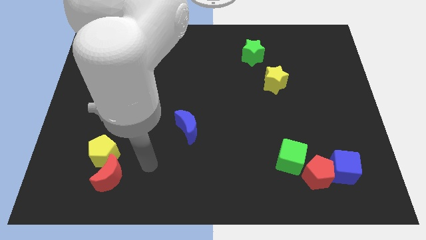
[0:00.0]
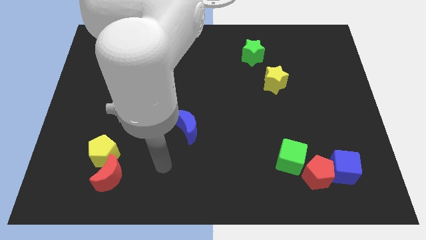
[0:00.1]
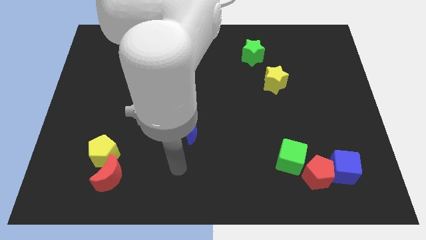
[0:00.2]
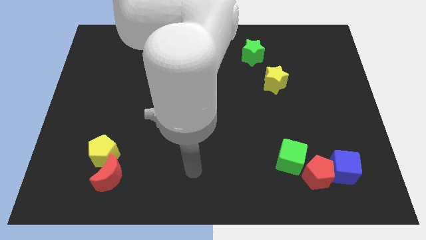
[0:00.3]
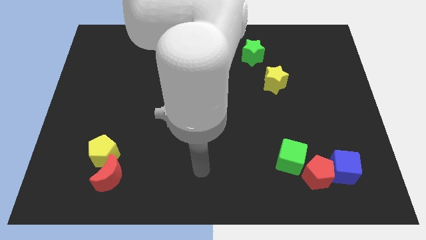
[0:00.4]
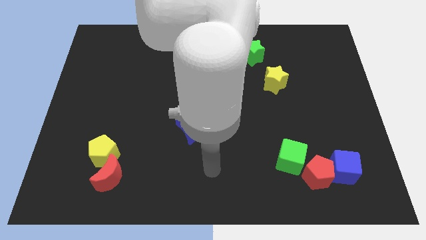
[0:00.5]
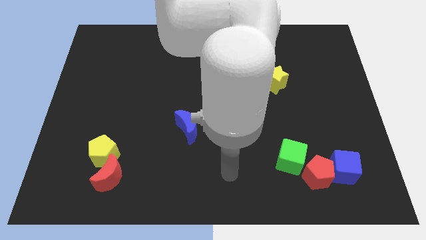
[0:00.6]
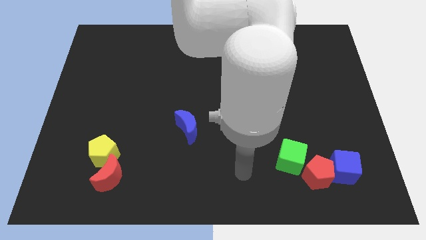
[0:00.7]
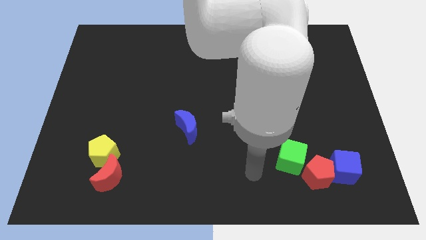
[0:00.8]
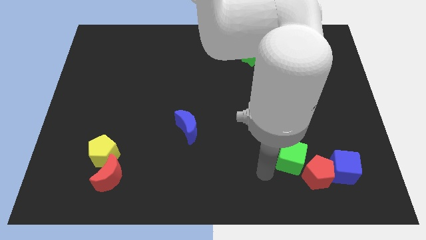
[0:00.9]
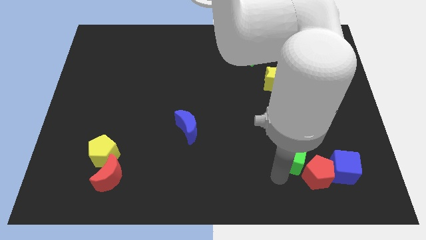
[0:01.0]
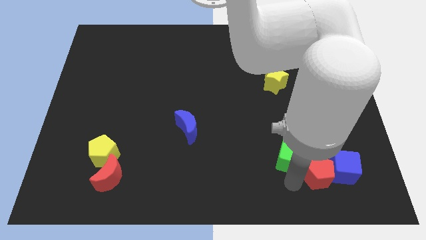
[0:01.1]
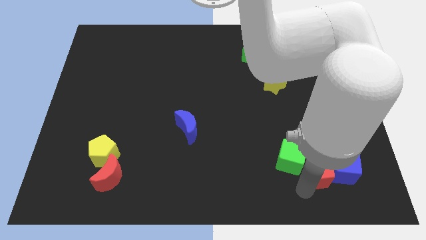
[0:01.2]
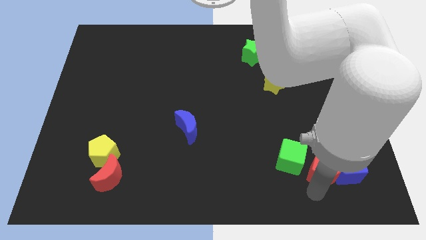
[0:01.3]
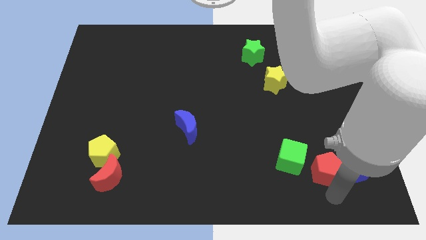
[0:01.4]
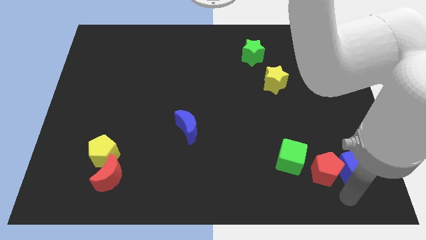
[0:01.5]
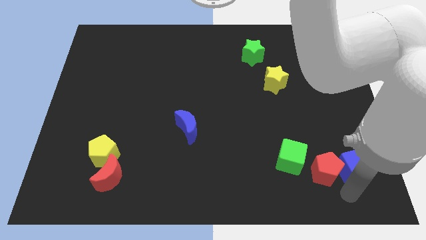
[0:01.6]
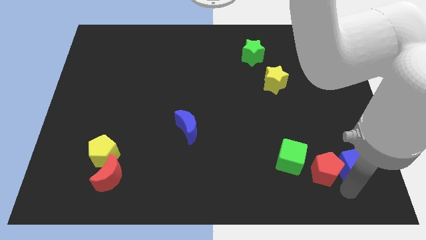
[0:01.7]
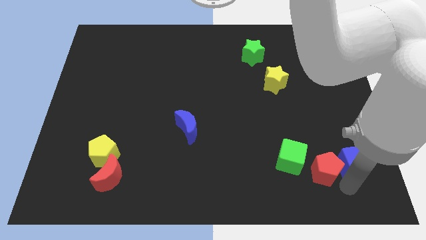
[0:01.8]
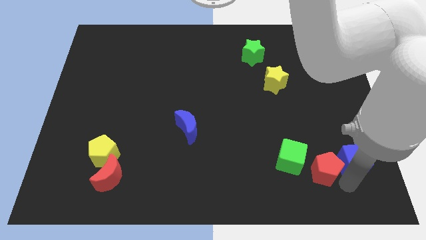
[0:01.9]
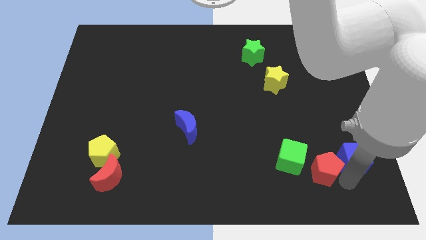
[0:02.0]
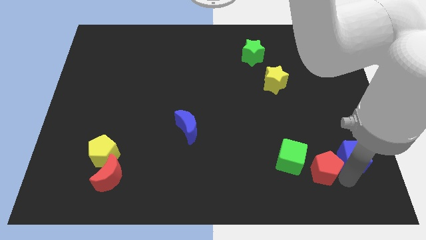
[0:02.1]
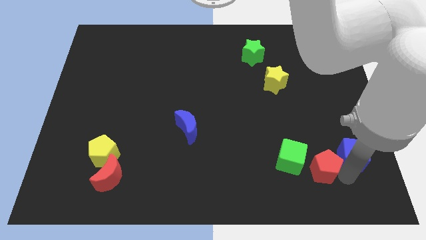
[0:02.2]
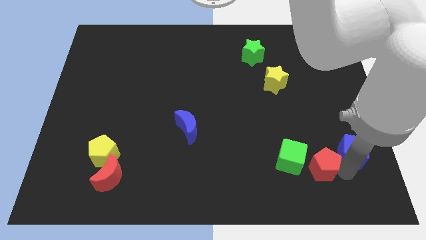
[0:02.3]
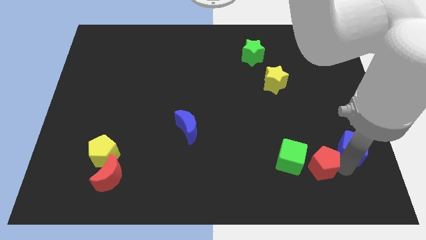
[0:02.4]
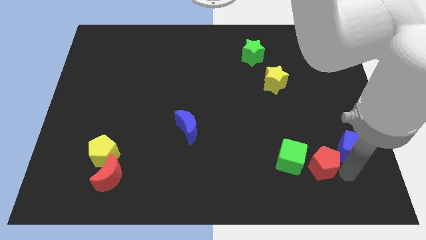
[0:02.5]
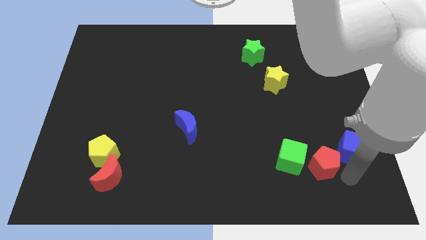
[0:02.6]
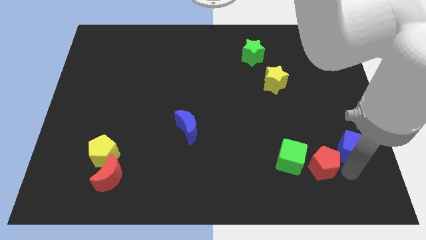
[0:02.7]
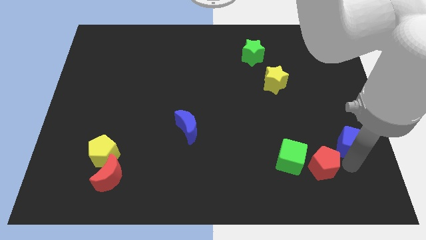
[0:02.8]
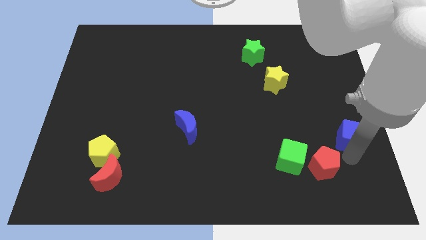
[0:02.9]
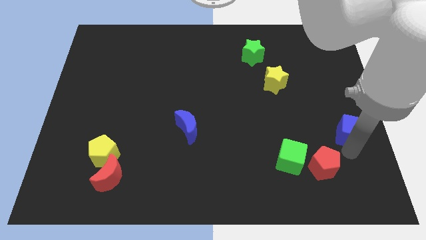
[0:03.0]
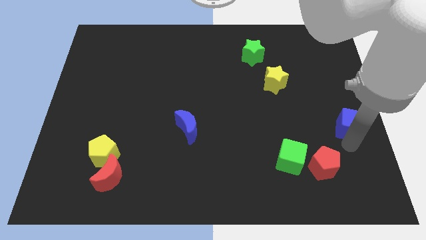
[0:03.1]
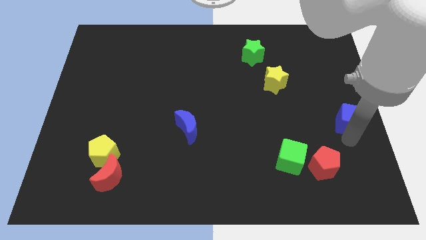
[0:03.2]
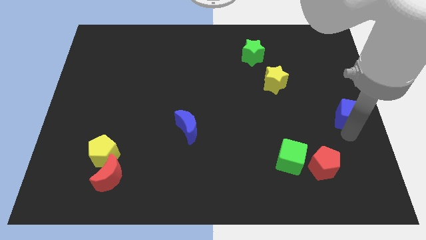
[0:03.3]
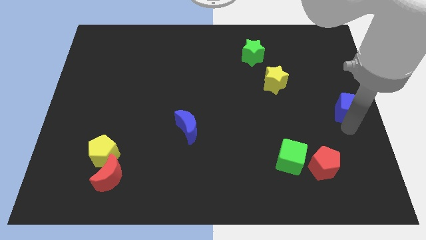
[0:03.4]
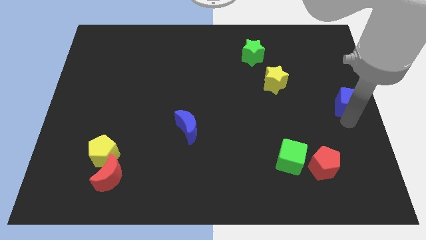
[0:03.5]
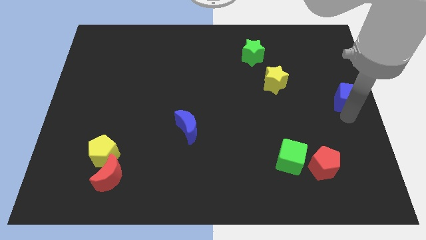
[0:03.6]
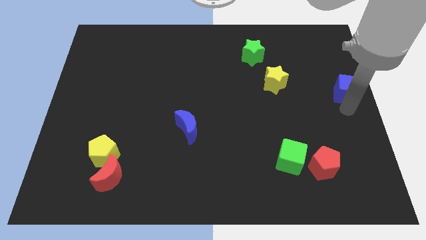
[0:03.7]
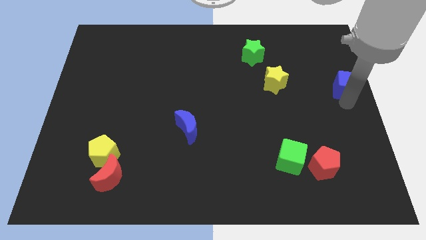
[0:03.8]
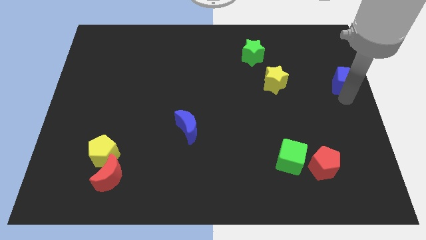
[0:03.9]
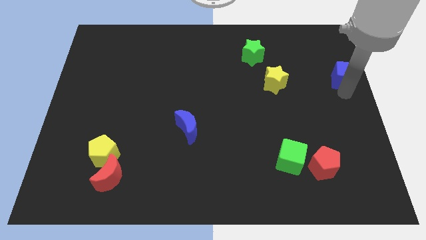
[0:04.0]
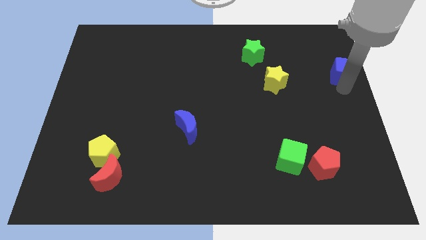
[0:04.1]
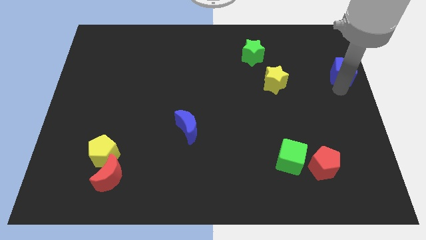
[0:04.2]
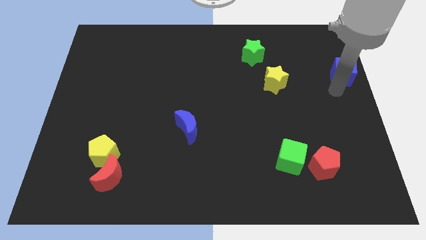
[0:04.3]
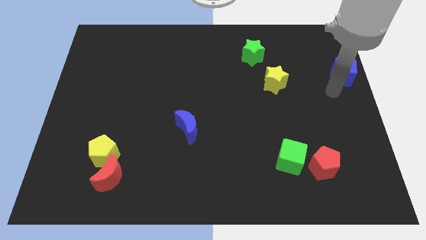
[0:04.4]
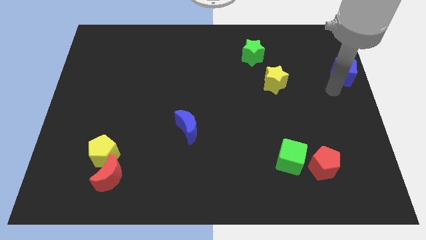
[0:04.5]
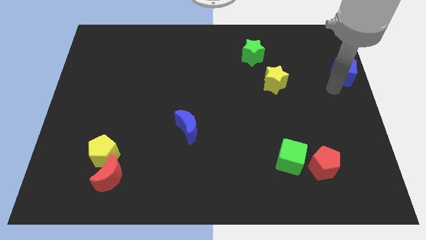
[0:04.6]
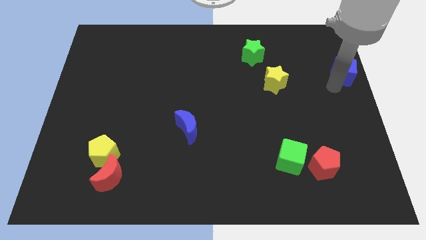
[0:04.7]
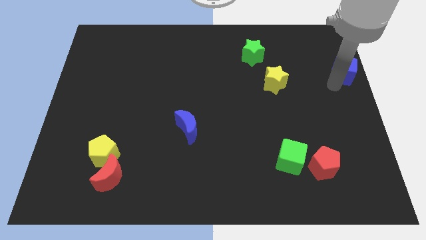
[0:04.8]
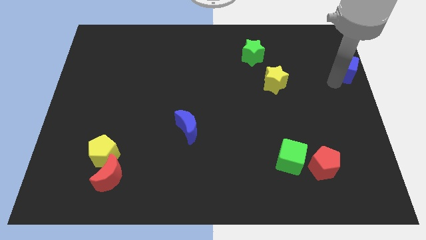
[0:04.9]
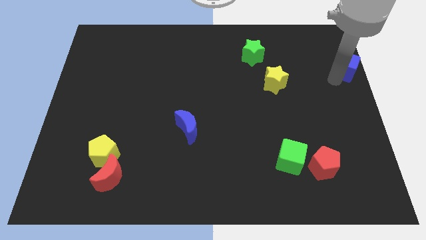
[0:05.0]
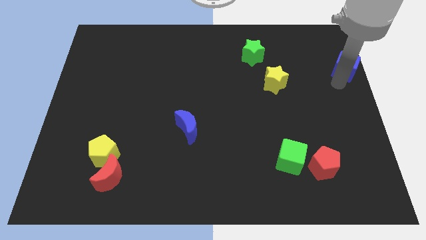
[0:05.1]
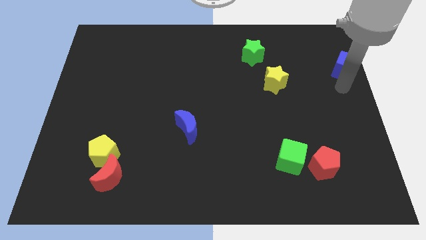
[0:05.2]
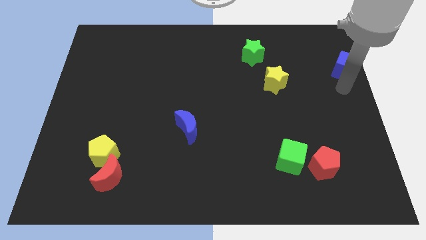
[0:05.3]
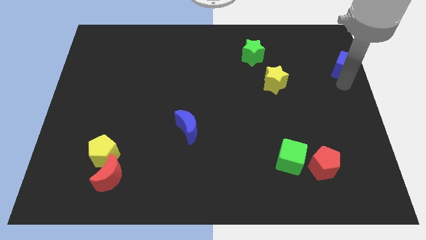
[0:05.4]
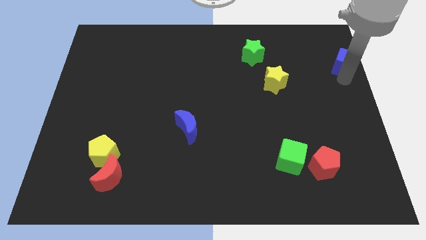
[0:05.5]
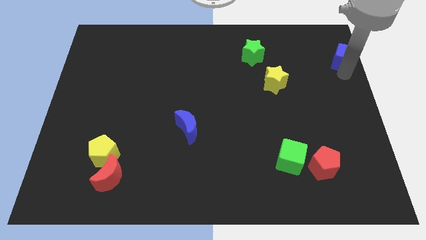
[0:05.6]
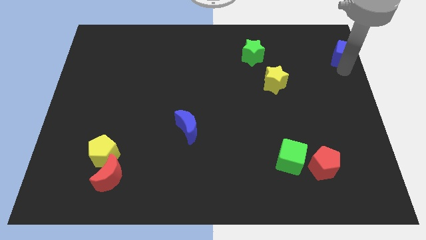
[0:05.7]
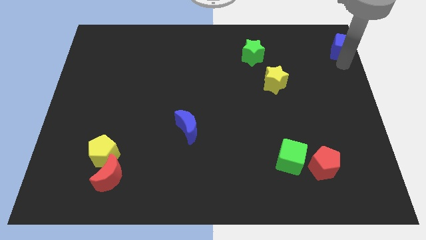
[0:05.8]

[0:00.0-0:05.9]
move the blue cube to the upper right corner
